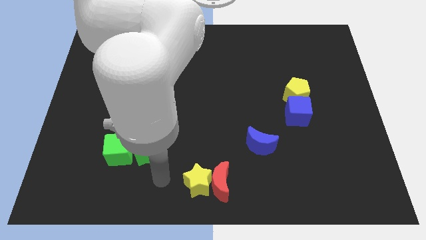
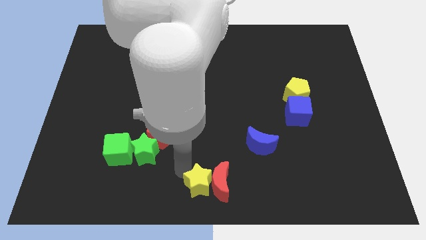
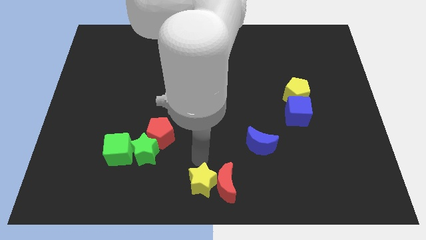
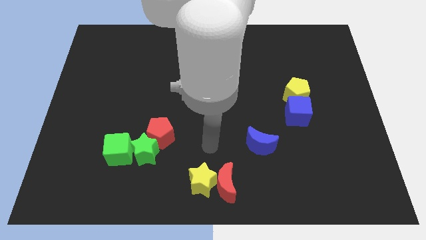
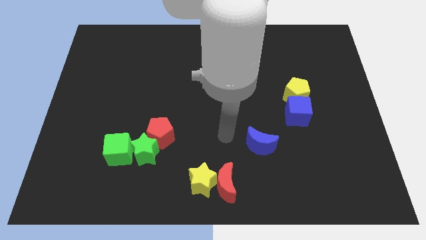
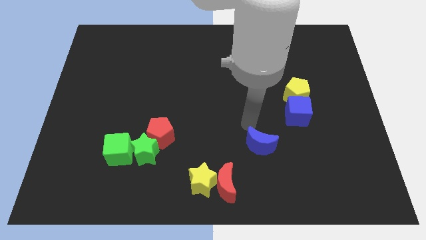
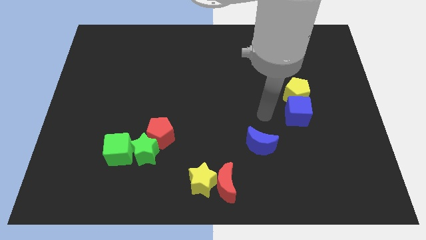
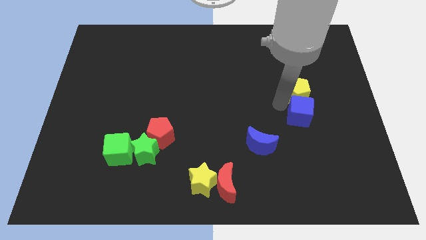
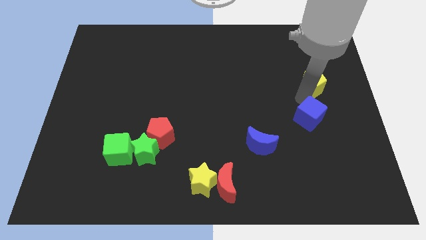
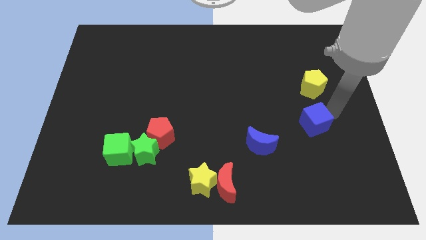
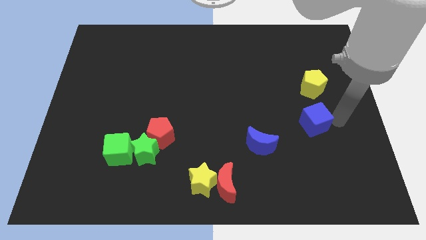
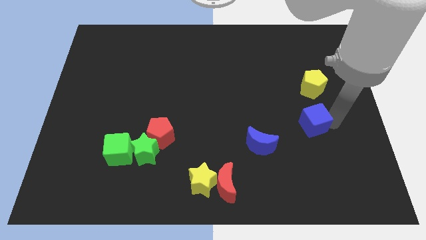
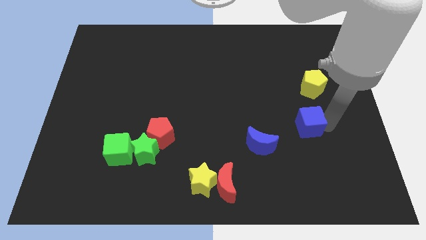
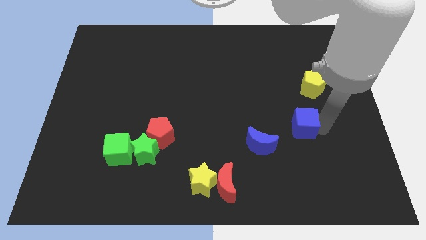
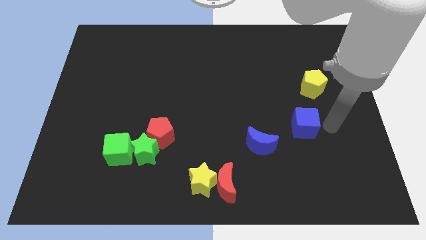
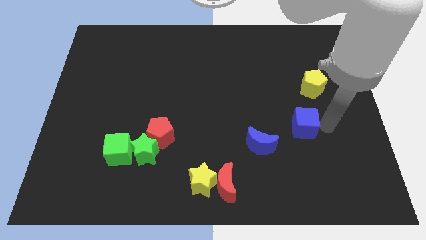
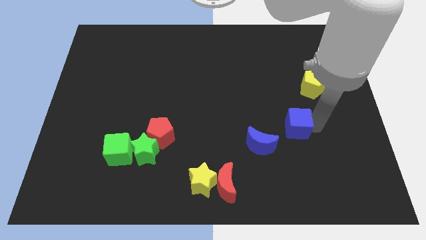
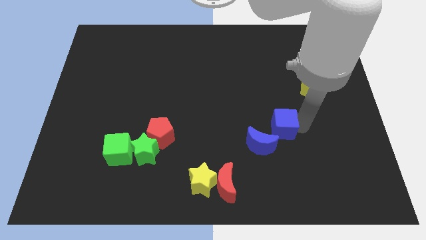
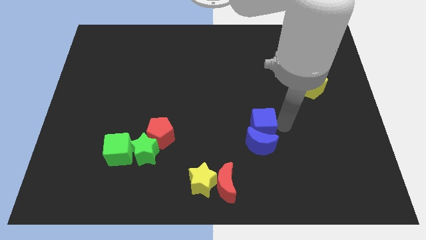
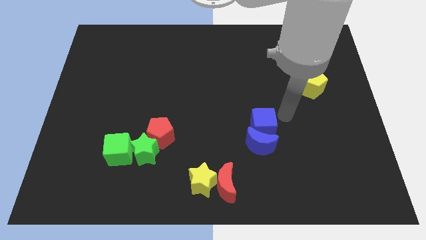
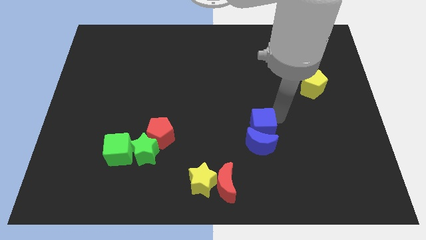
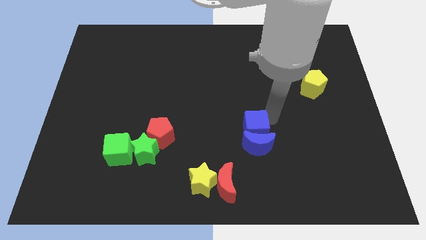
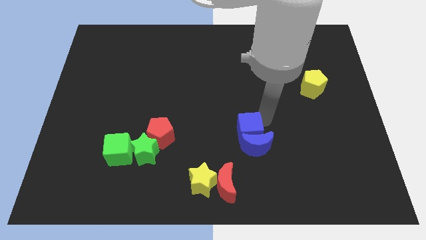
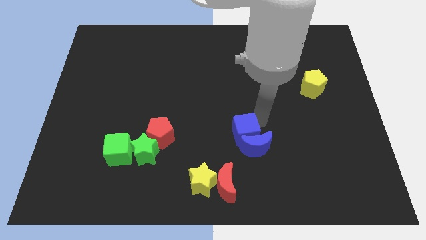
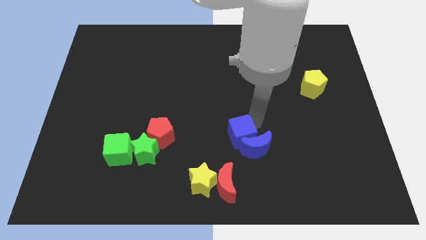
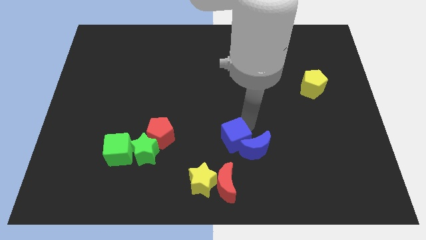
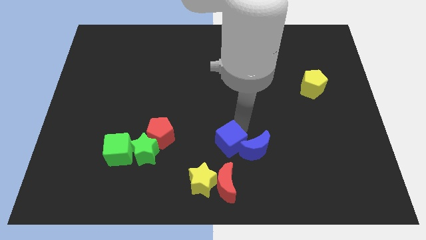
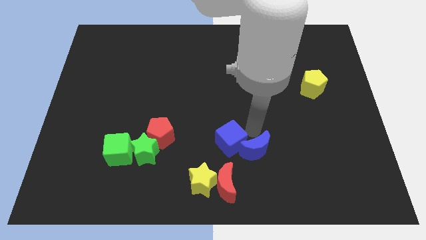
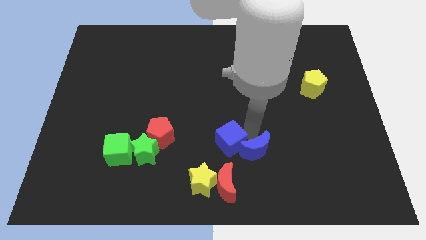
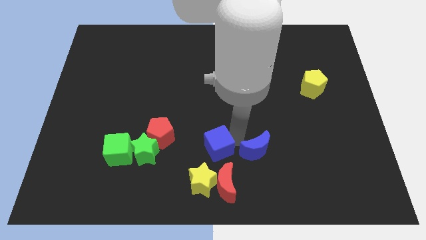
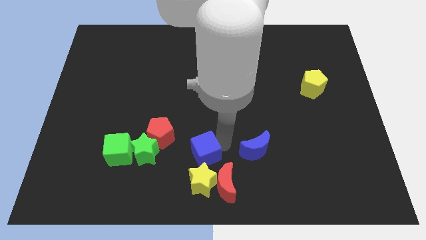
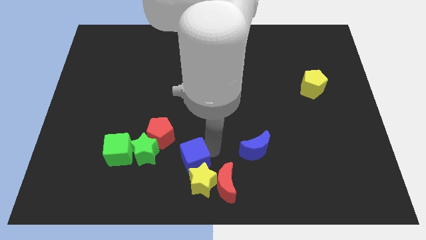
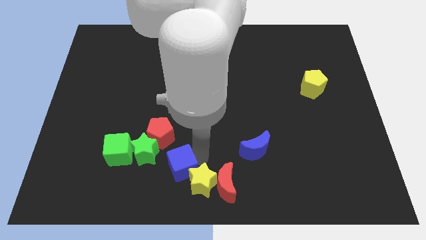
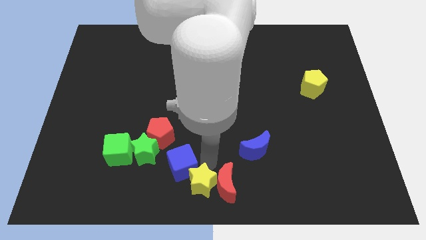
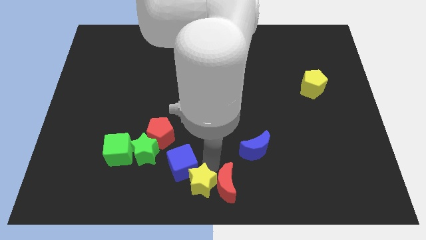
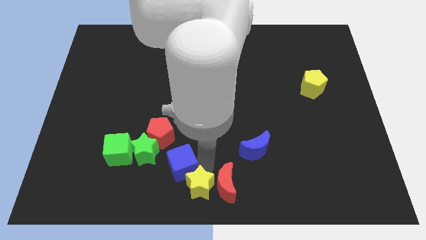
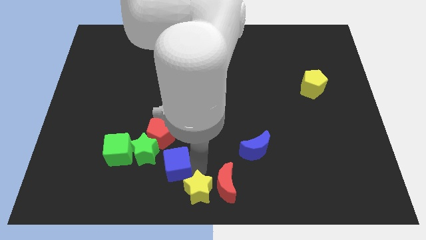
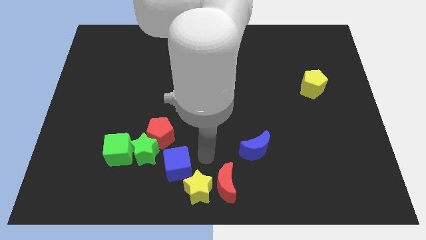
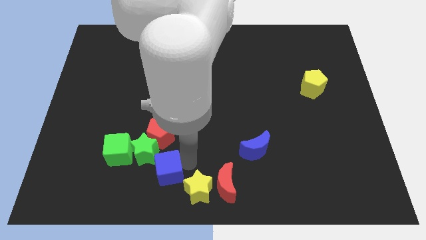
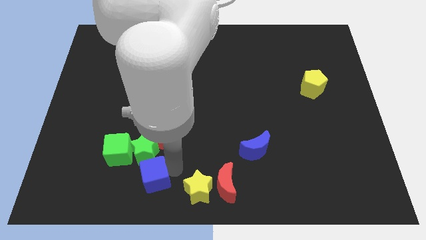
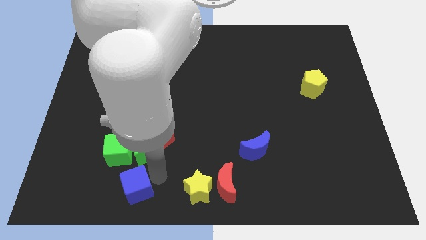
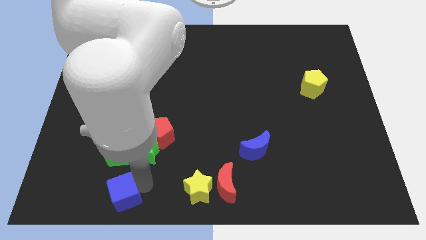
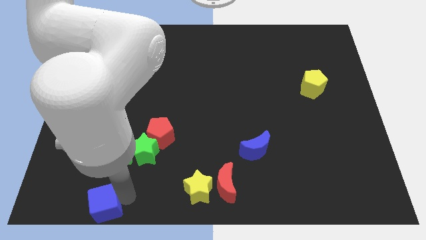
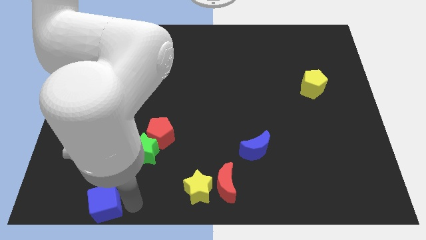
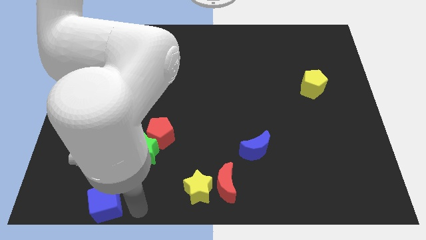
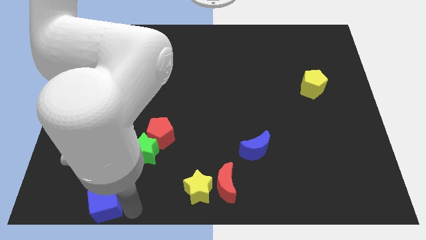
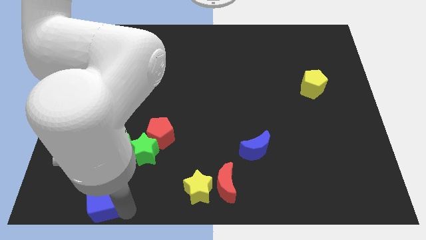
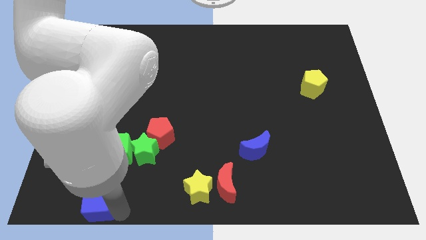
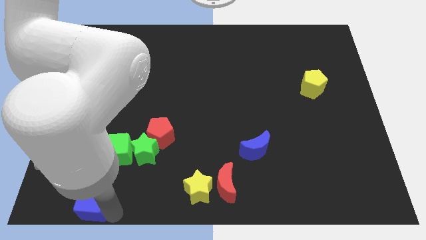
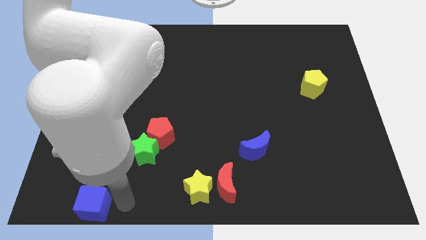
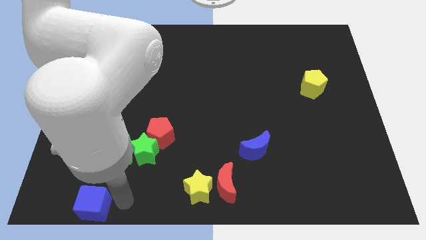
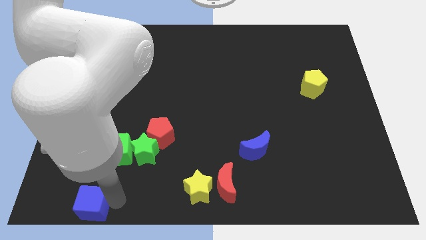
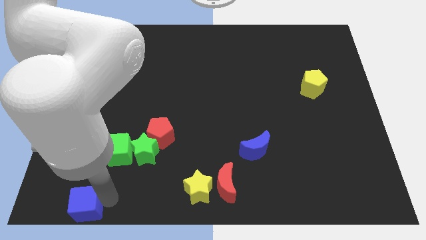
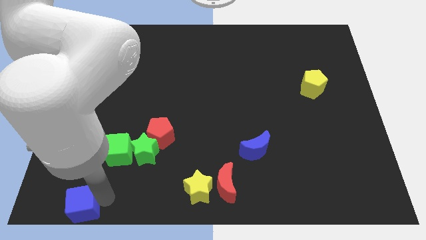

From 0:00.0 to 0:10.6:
push the blue cube to the bottom left corner
